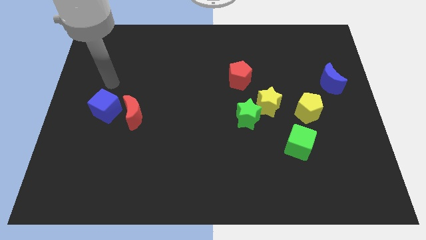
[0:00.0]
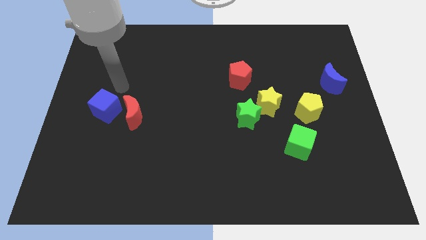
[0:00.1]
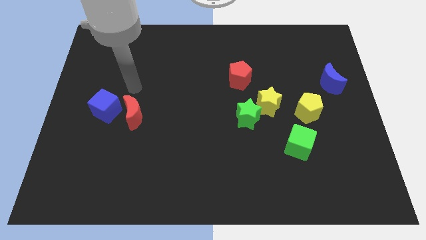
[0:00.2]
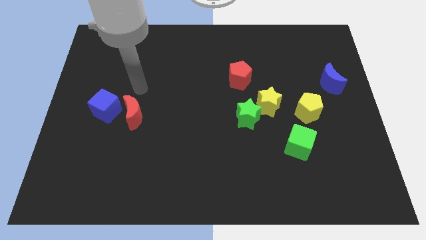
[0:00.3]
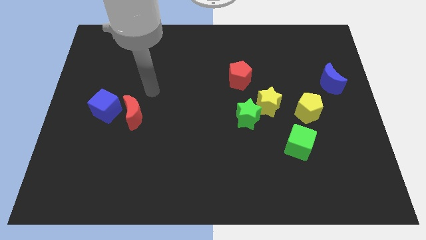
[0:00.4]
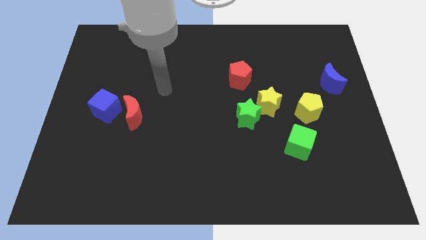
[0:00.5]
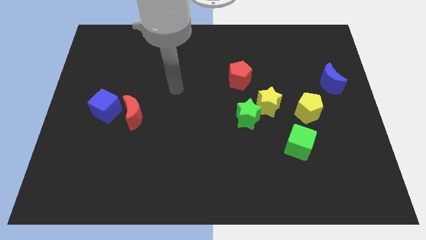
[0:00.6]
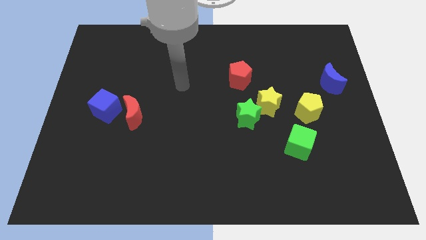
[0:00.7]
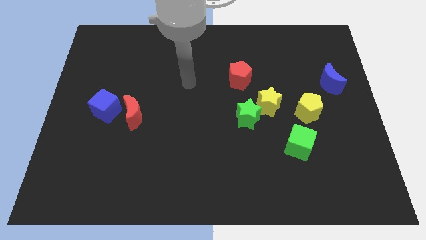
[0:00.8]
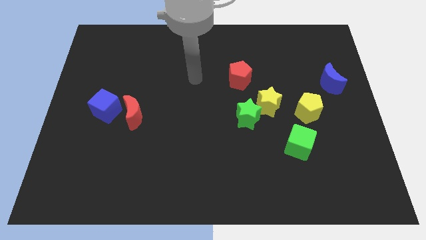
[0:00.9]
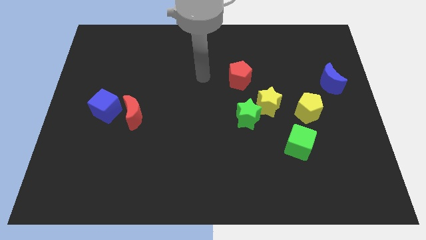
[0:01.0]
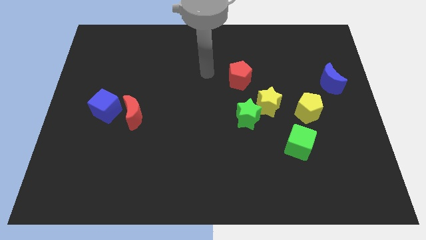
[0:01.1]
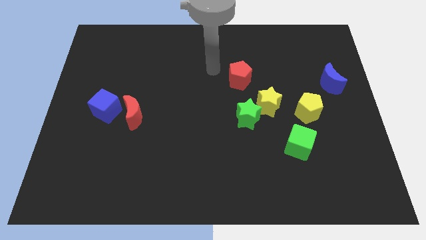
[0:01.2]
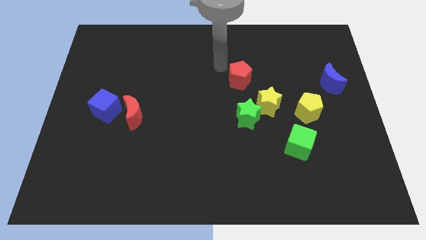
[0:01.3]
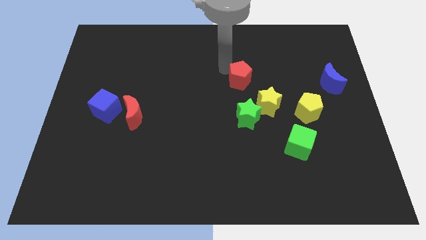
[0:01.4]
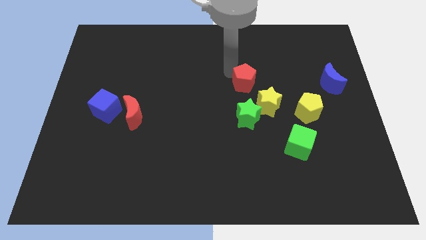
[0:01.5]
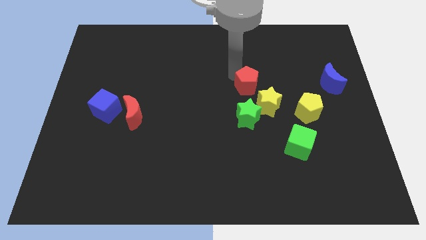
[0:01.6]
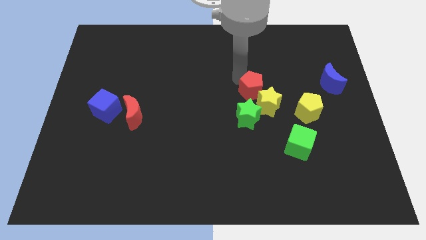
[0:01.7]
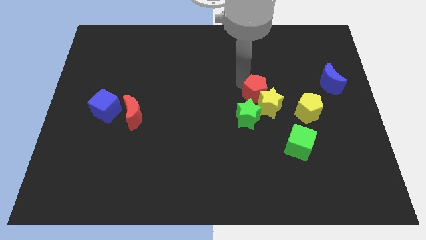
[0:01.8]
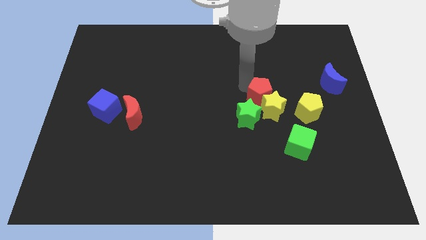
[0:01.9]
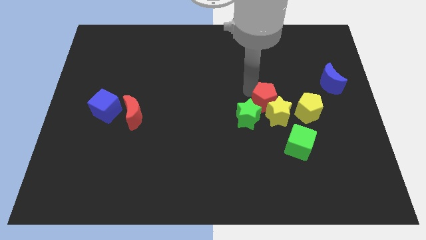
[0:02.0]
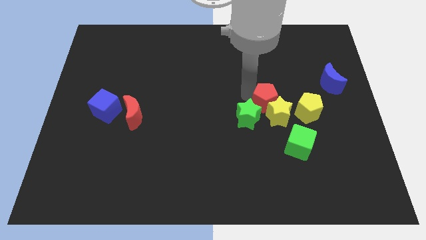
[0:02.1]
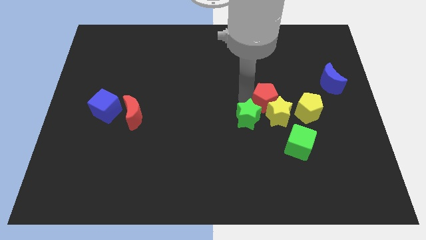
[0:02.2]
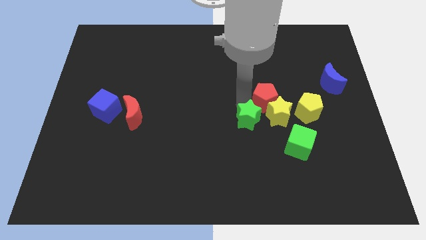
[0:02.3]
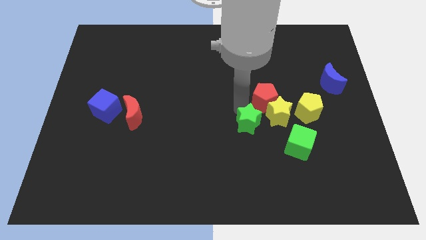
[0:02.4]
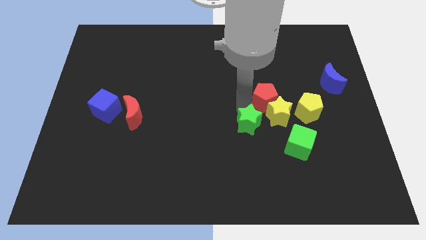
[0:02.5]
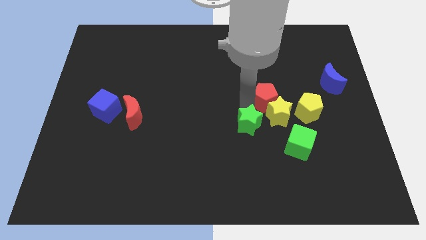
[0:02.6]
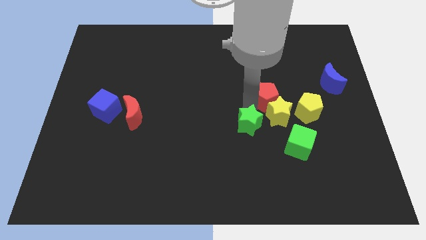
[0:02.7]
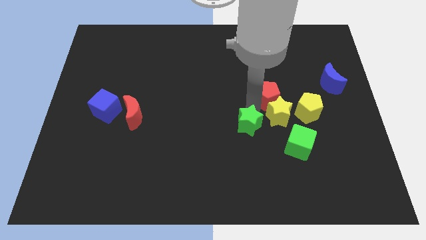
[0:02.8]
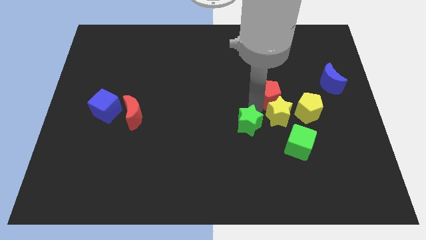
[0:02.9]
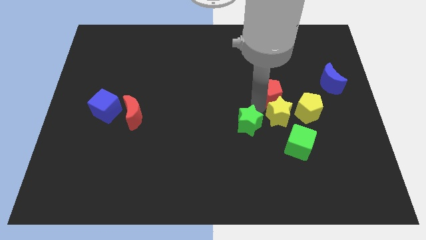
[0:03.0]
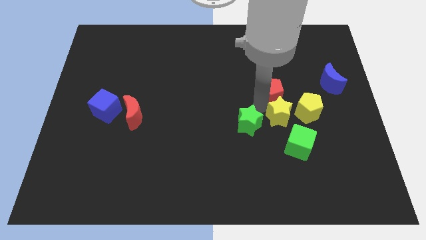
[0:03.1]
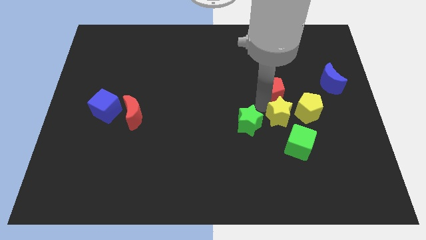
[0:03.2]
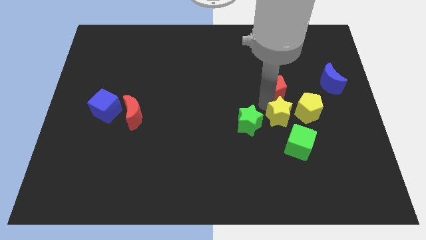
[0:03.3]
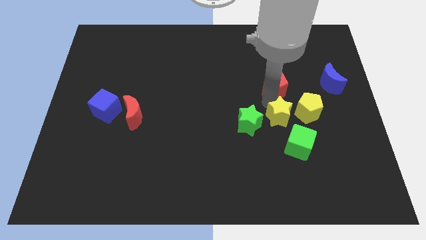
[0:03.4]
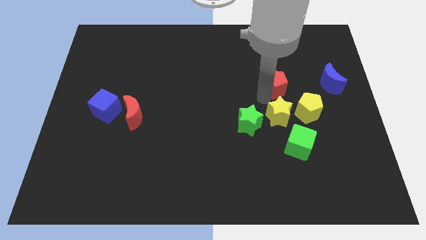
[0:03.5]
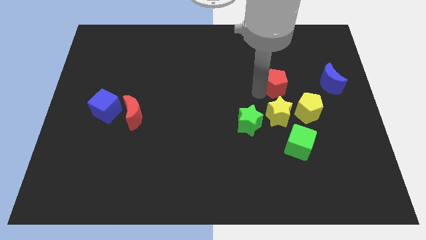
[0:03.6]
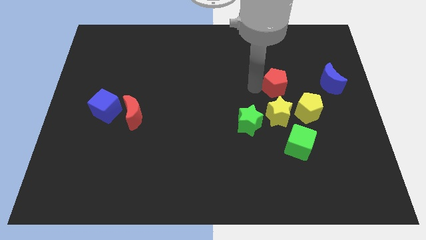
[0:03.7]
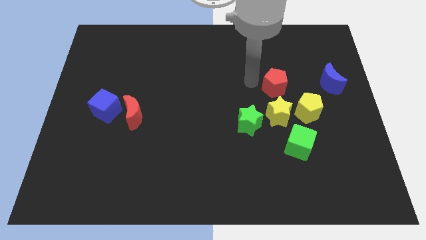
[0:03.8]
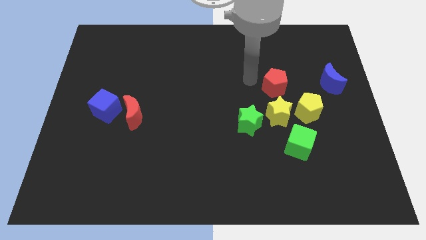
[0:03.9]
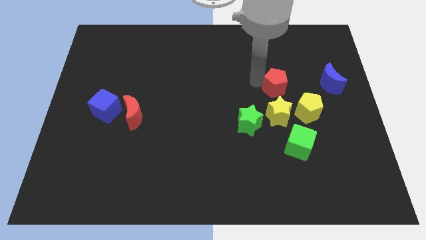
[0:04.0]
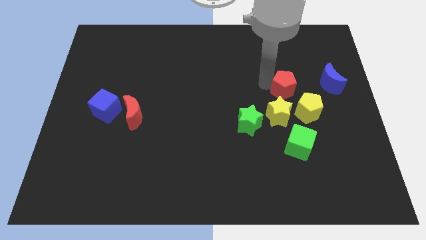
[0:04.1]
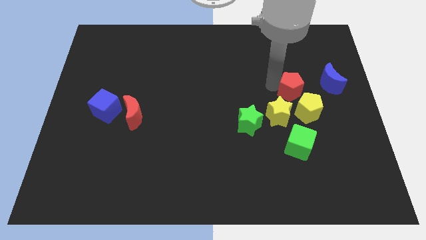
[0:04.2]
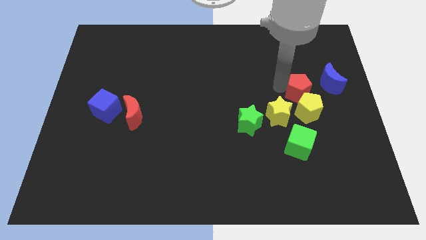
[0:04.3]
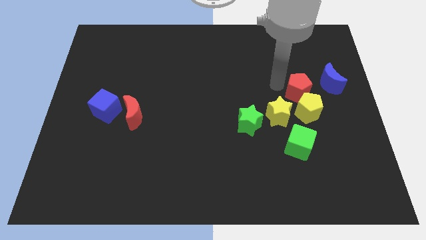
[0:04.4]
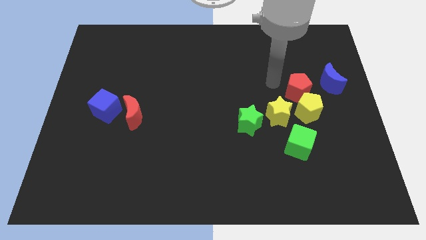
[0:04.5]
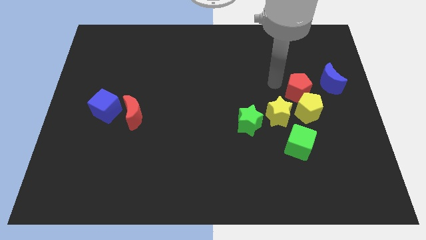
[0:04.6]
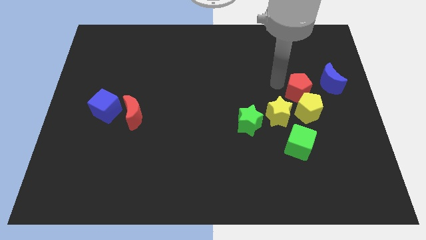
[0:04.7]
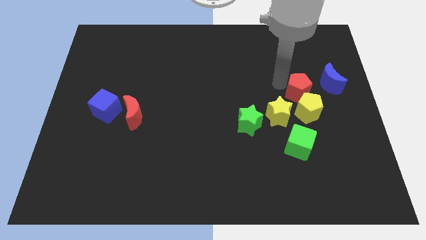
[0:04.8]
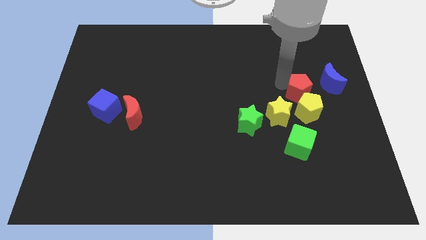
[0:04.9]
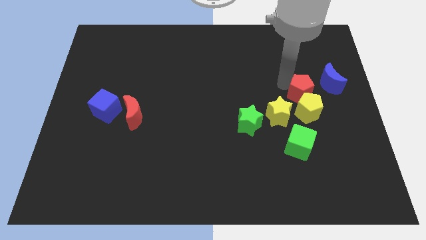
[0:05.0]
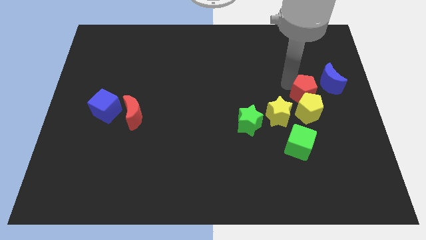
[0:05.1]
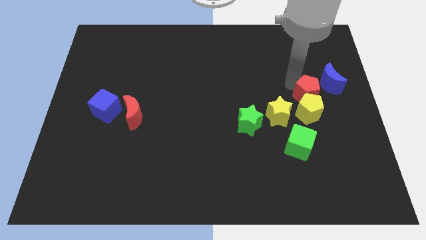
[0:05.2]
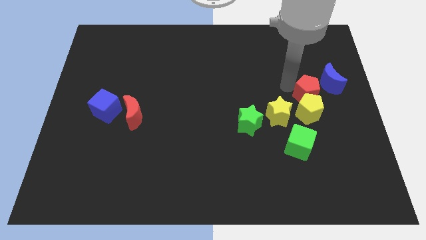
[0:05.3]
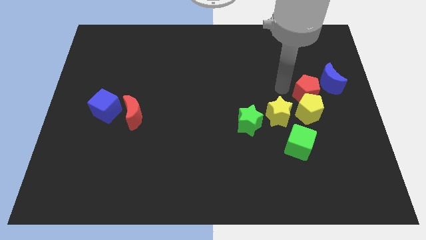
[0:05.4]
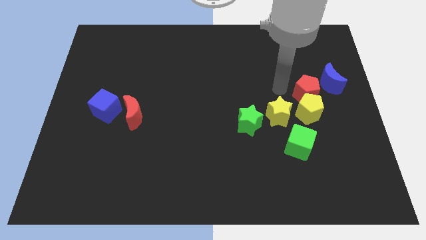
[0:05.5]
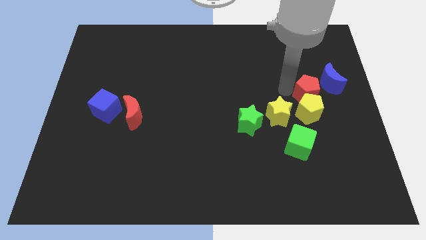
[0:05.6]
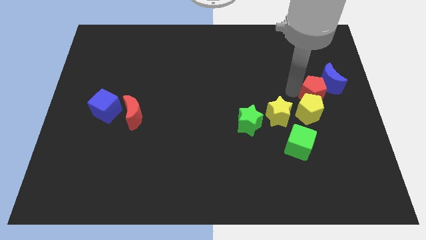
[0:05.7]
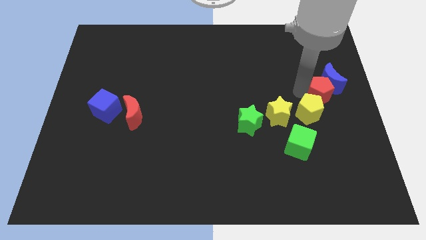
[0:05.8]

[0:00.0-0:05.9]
slide the red pentagon to the right side of the board
